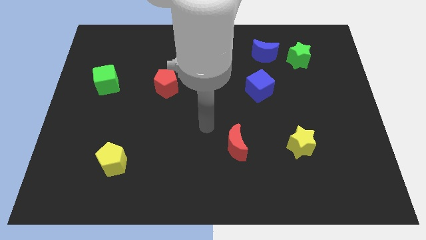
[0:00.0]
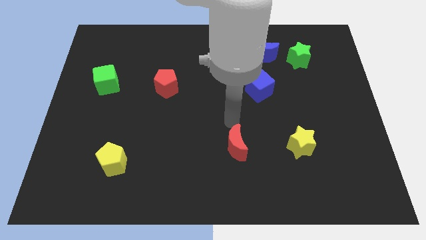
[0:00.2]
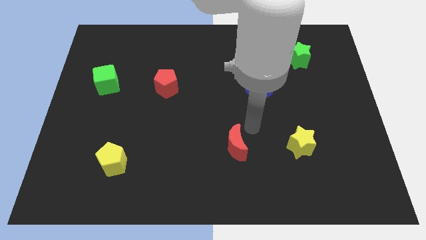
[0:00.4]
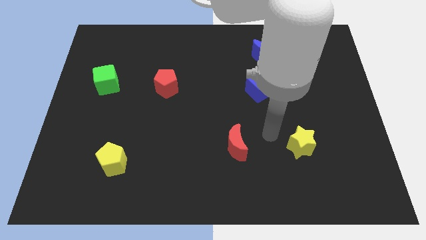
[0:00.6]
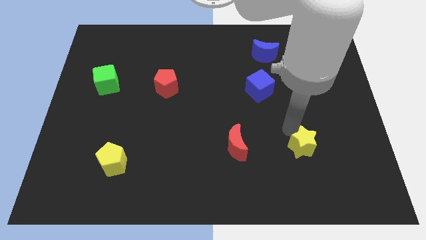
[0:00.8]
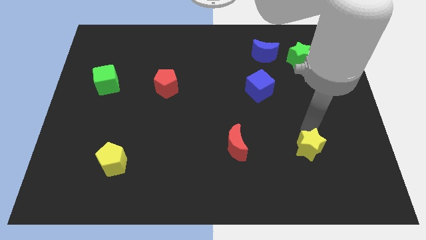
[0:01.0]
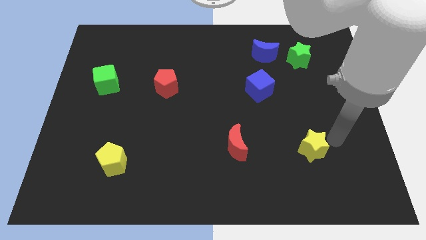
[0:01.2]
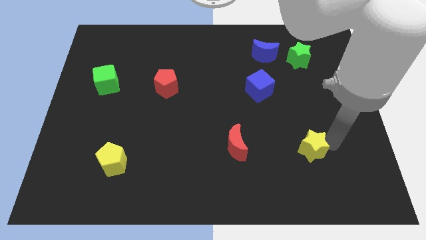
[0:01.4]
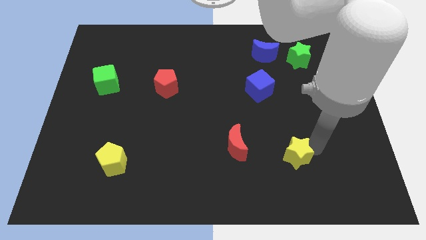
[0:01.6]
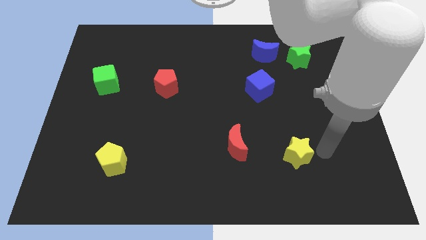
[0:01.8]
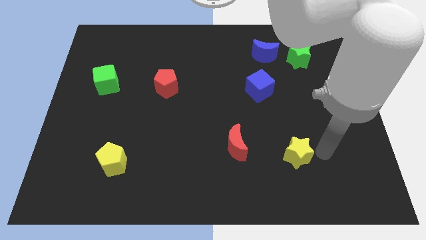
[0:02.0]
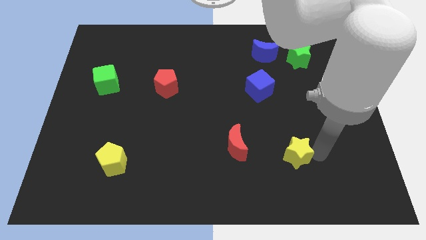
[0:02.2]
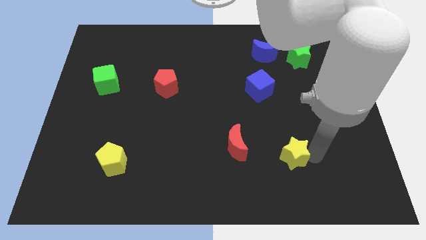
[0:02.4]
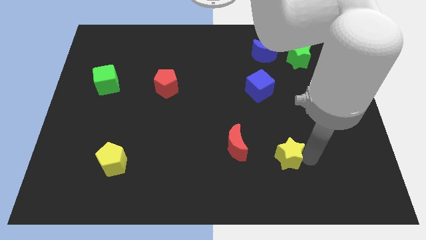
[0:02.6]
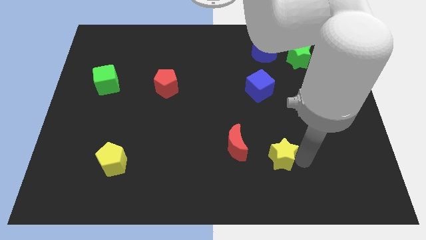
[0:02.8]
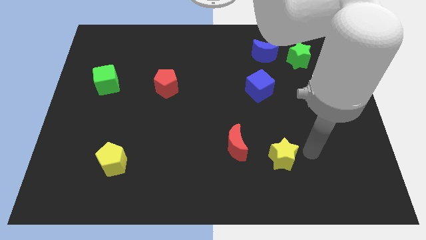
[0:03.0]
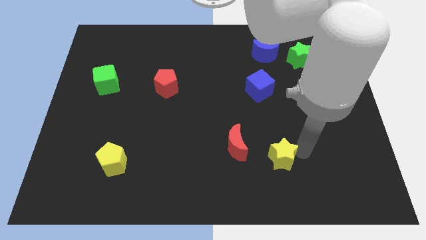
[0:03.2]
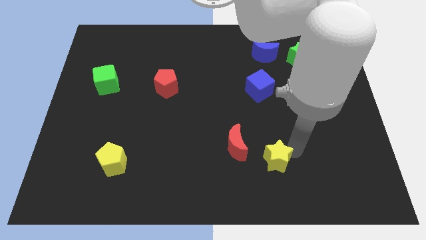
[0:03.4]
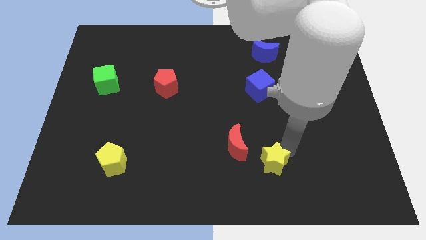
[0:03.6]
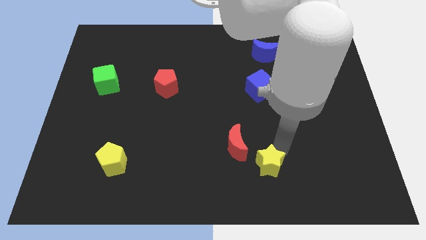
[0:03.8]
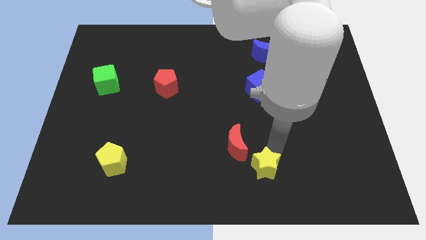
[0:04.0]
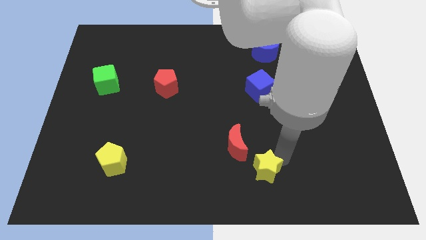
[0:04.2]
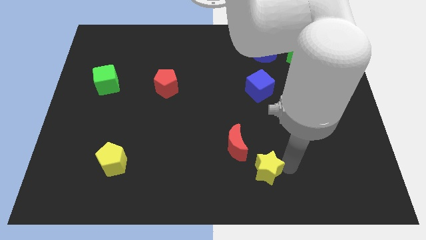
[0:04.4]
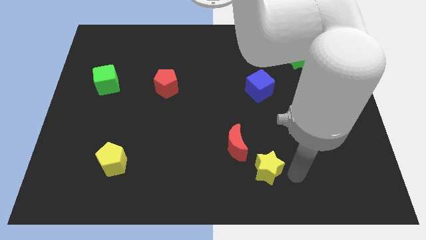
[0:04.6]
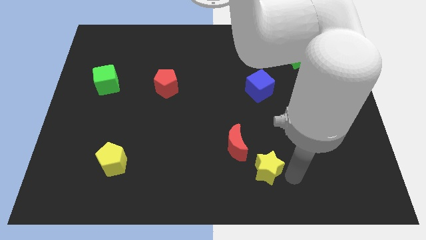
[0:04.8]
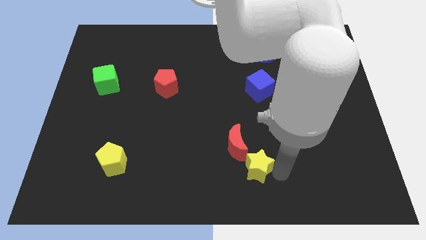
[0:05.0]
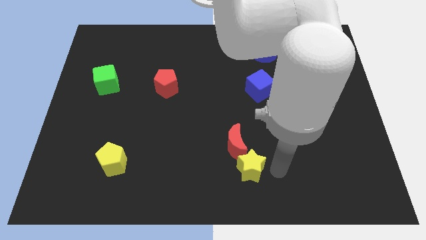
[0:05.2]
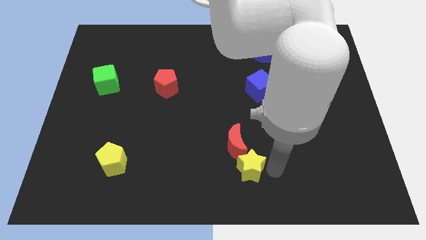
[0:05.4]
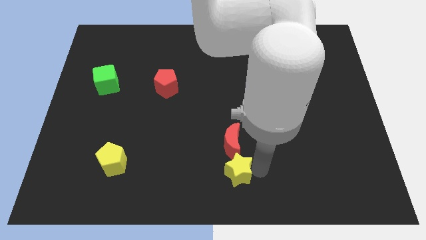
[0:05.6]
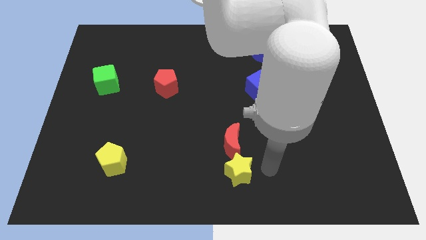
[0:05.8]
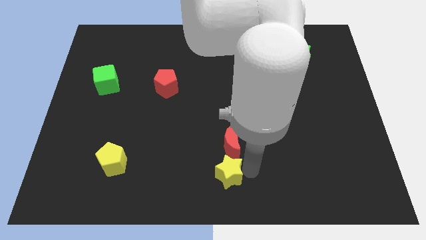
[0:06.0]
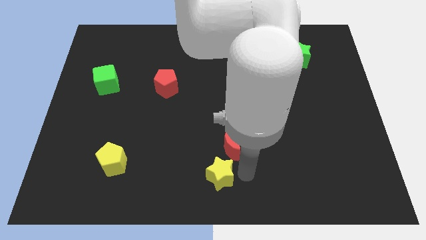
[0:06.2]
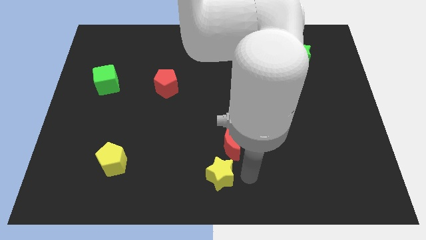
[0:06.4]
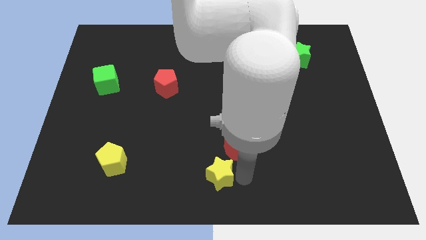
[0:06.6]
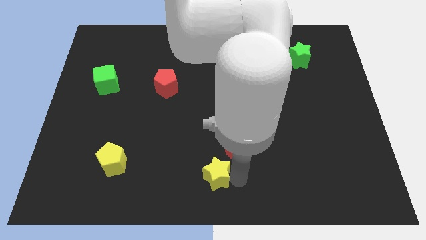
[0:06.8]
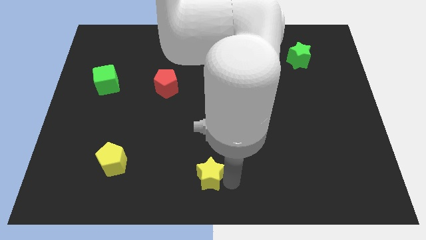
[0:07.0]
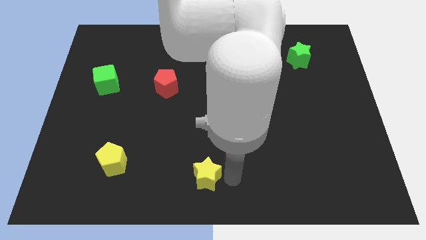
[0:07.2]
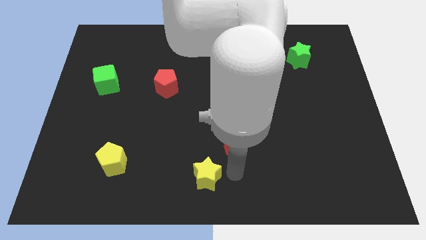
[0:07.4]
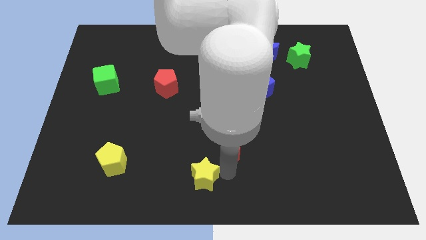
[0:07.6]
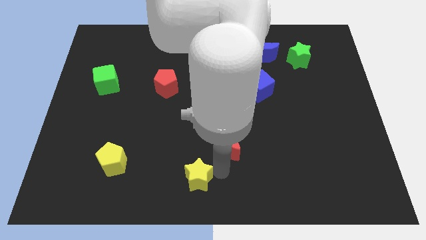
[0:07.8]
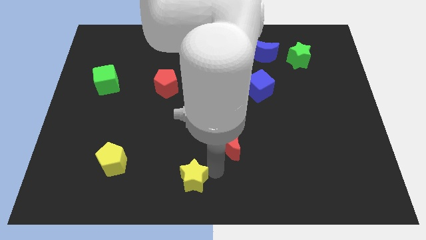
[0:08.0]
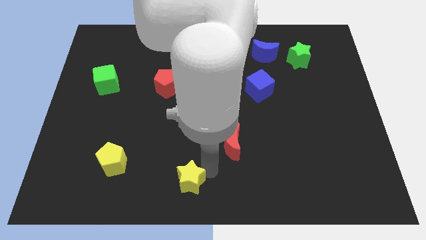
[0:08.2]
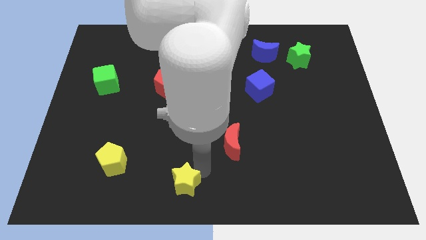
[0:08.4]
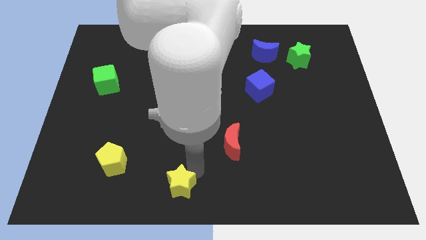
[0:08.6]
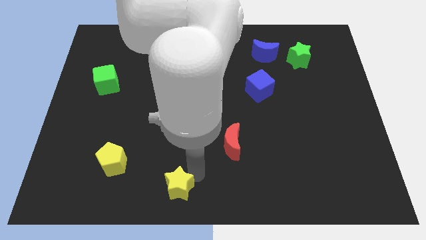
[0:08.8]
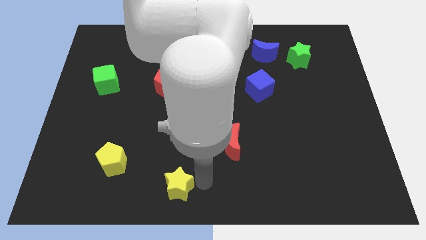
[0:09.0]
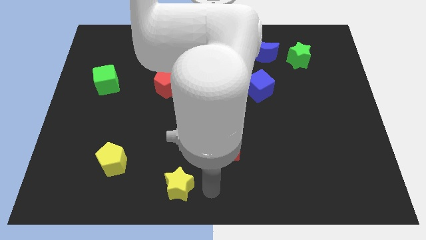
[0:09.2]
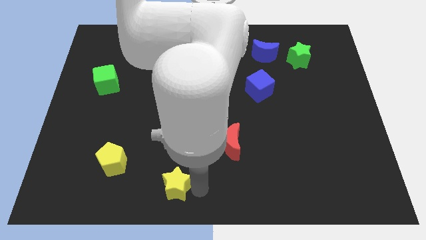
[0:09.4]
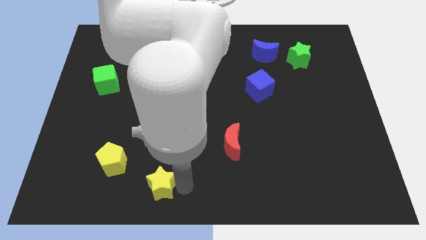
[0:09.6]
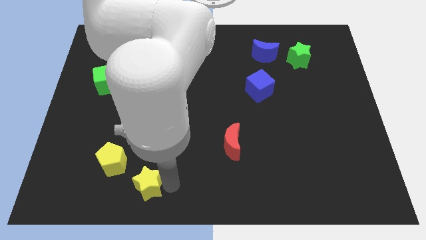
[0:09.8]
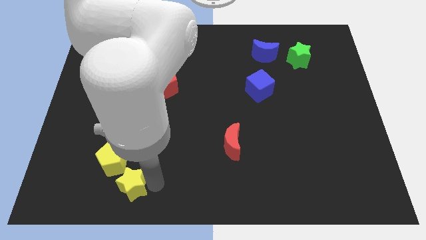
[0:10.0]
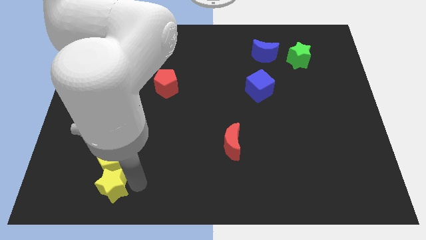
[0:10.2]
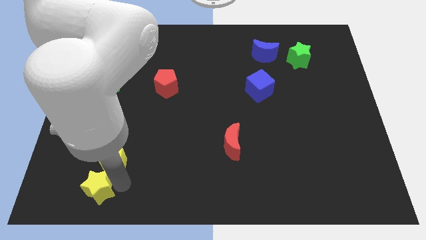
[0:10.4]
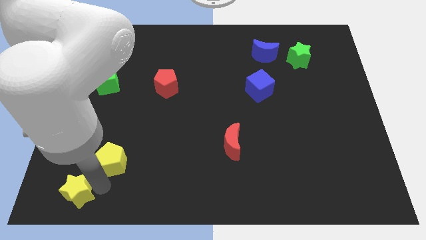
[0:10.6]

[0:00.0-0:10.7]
move the yellow star to the lower left corner

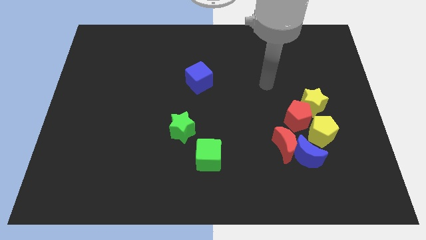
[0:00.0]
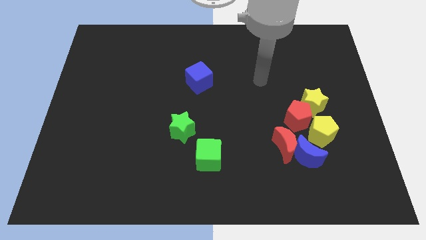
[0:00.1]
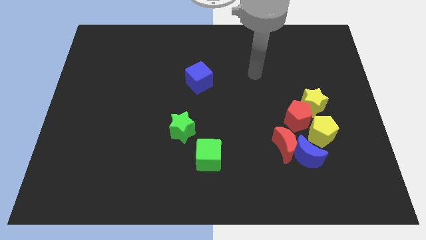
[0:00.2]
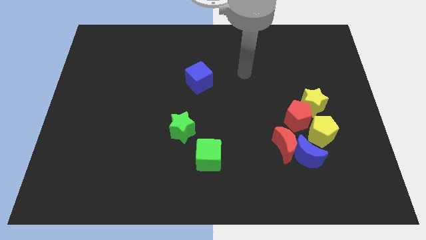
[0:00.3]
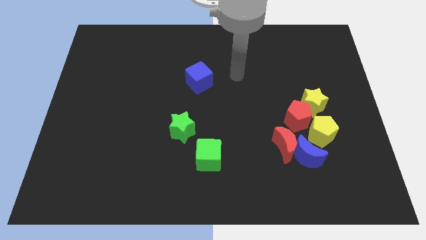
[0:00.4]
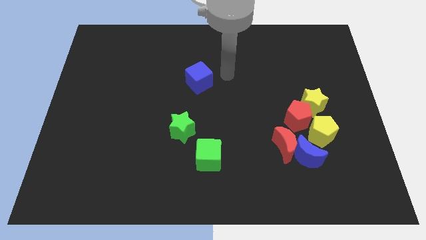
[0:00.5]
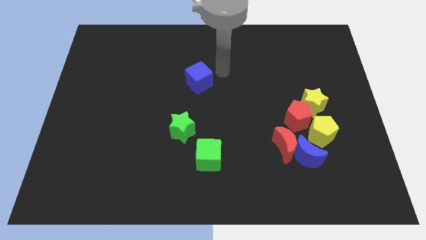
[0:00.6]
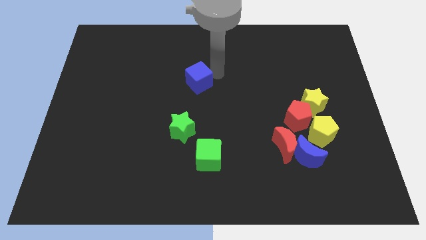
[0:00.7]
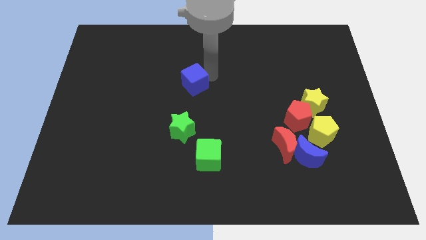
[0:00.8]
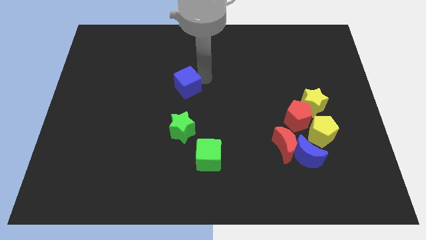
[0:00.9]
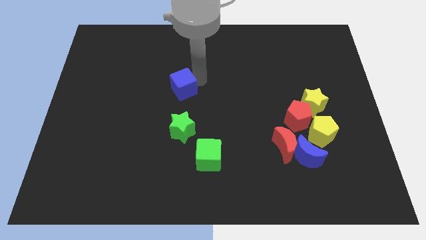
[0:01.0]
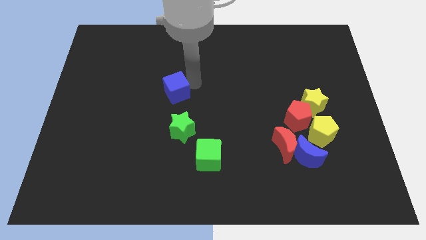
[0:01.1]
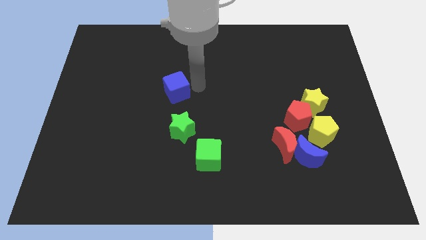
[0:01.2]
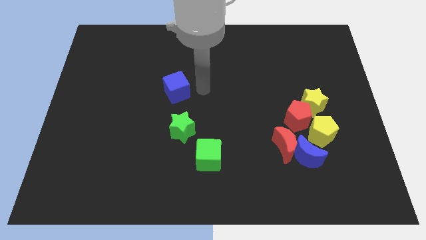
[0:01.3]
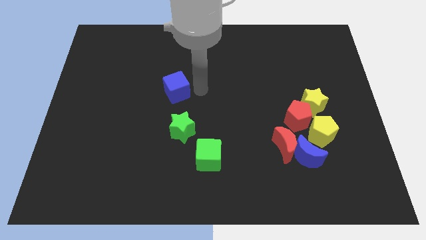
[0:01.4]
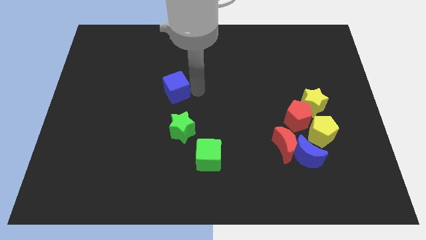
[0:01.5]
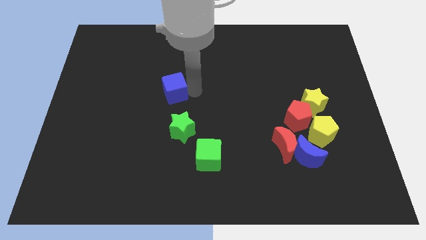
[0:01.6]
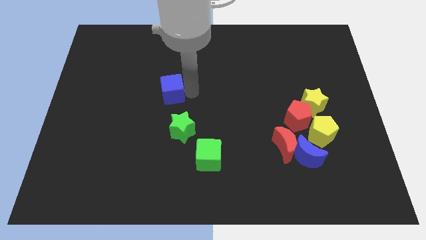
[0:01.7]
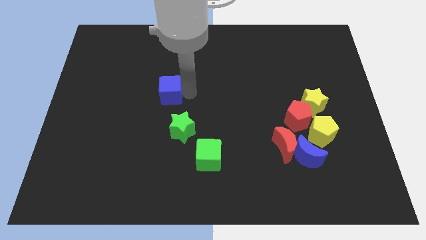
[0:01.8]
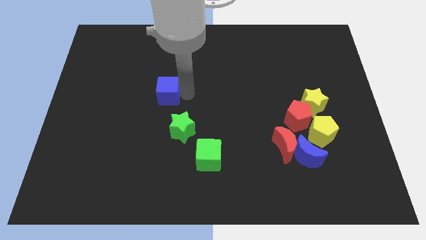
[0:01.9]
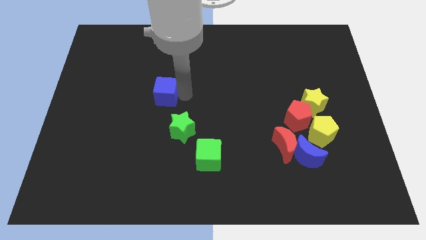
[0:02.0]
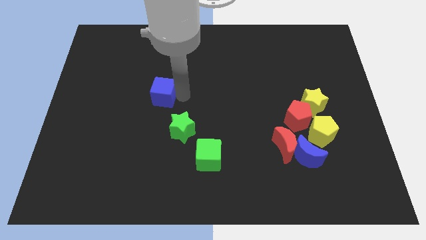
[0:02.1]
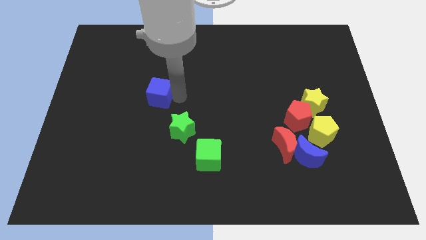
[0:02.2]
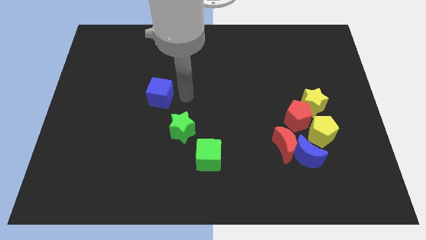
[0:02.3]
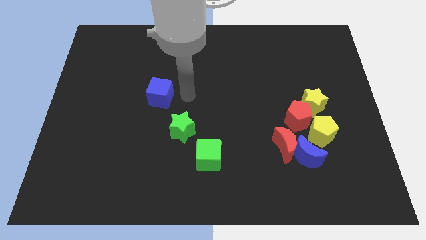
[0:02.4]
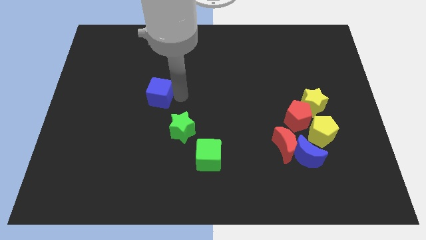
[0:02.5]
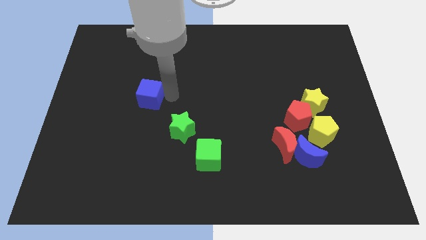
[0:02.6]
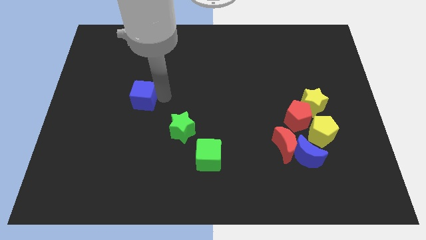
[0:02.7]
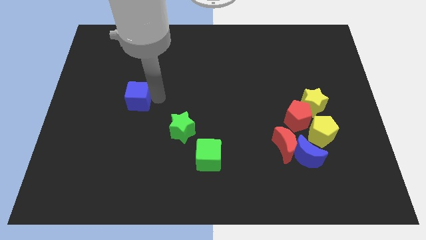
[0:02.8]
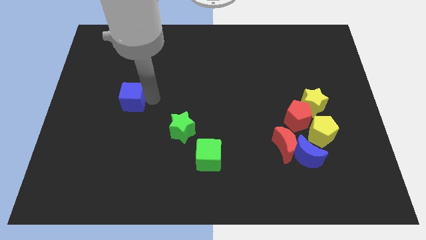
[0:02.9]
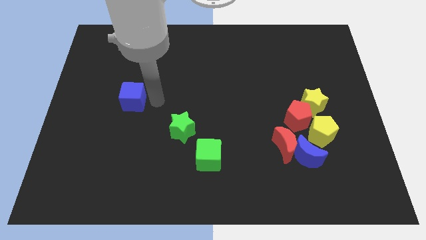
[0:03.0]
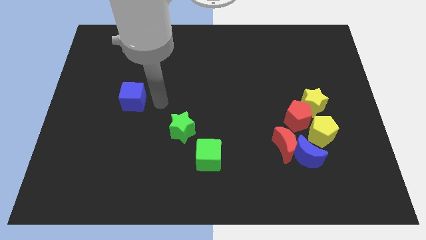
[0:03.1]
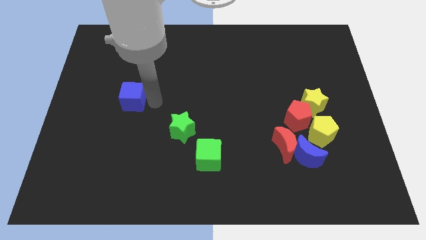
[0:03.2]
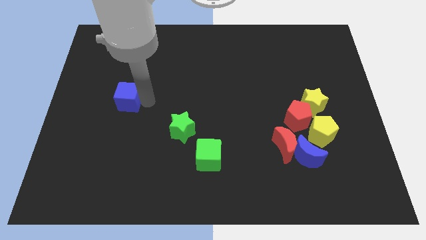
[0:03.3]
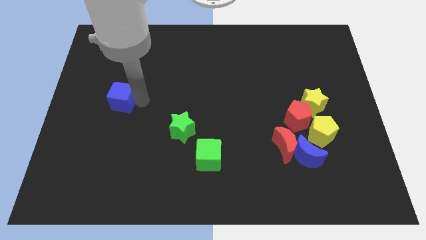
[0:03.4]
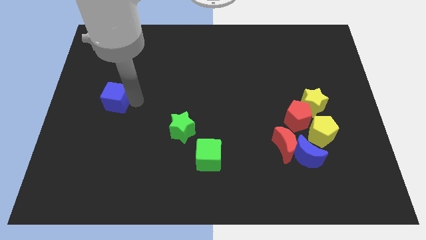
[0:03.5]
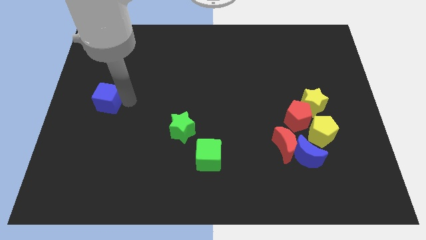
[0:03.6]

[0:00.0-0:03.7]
slide the blue cube to the left side of the board
